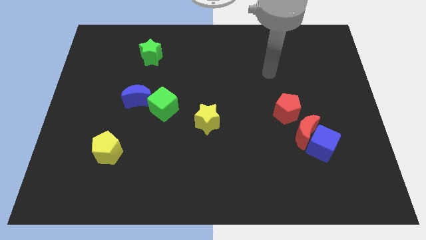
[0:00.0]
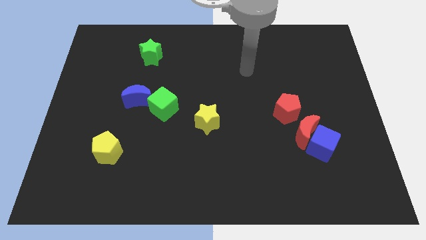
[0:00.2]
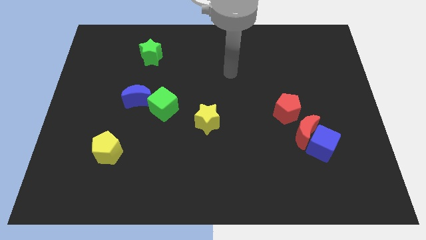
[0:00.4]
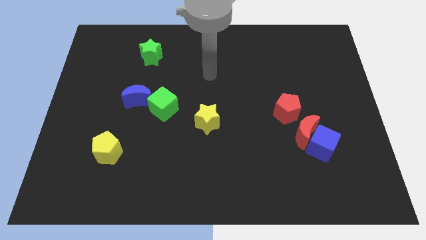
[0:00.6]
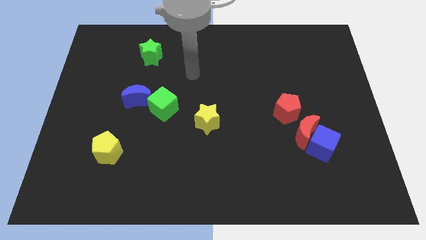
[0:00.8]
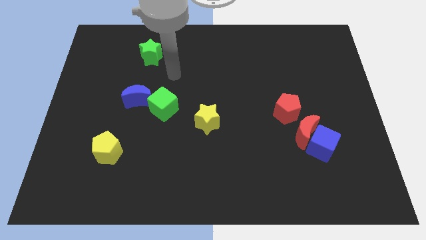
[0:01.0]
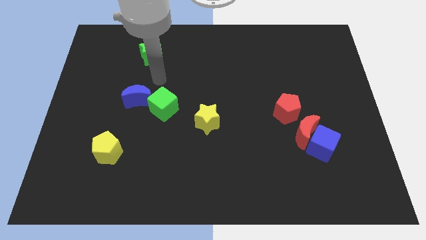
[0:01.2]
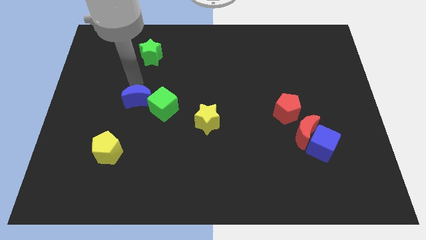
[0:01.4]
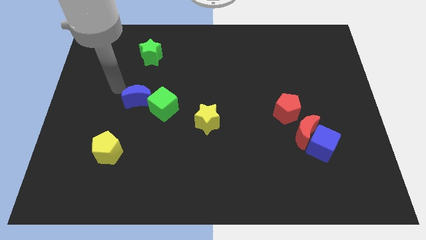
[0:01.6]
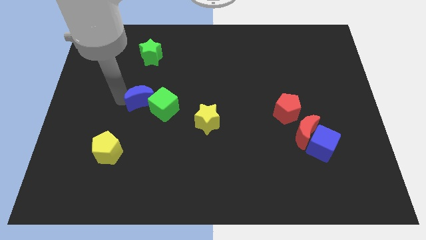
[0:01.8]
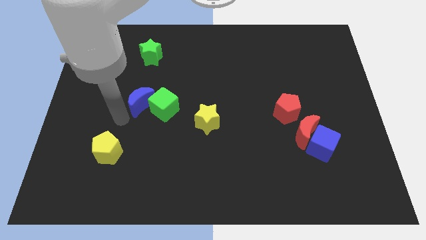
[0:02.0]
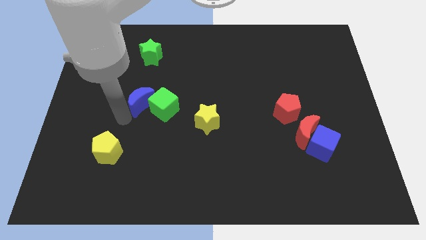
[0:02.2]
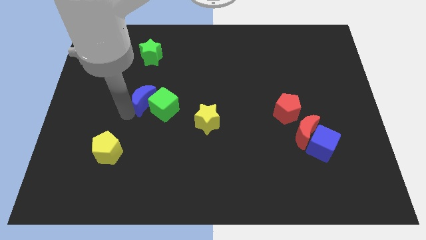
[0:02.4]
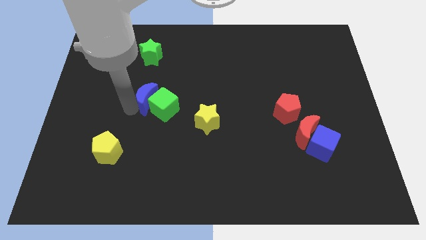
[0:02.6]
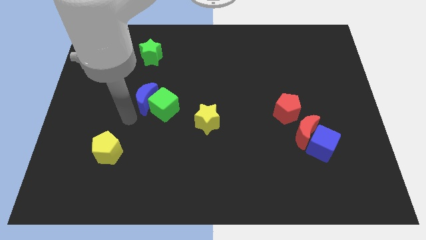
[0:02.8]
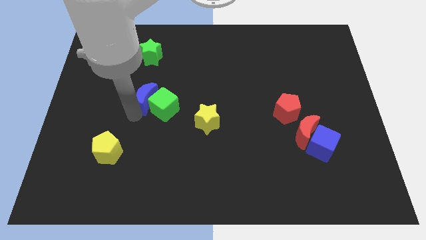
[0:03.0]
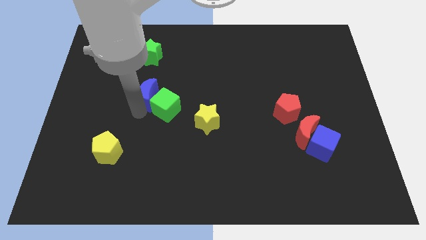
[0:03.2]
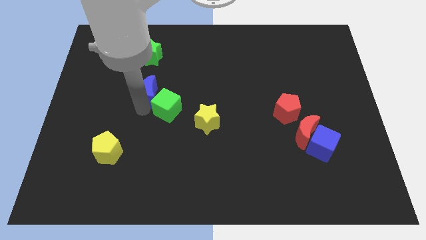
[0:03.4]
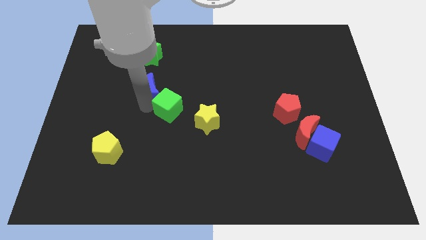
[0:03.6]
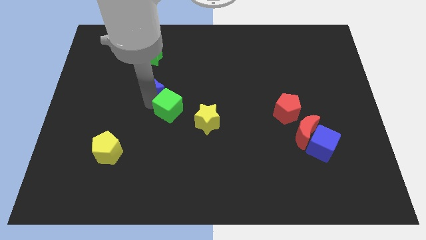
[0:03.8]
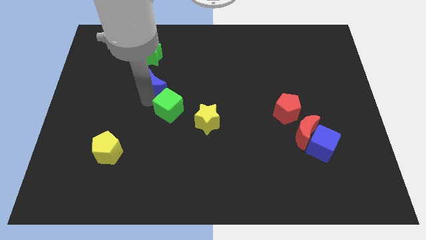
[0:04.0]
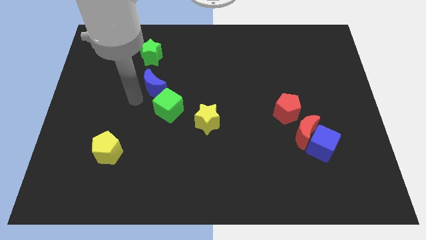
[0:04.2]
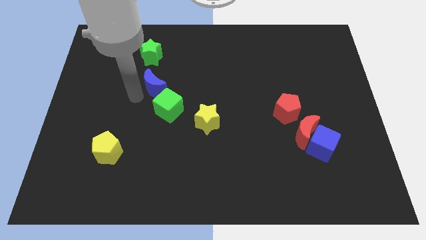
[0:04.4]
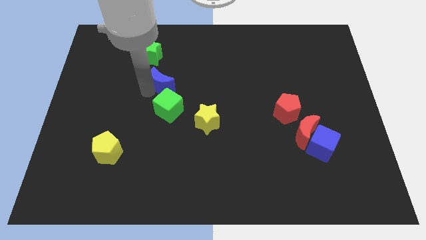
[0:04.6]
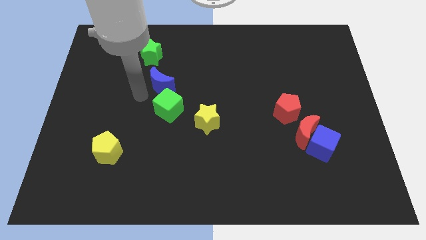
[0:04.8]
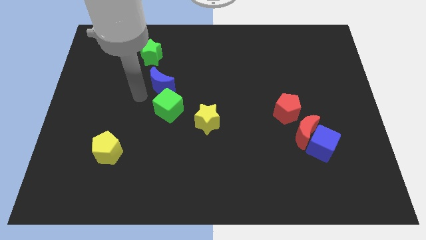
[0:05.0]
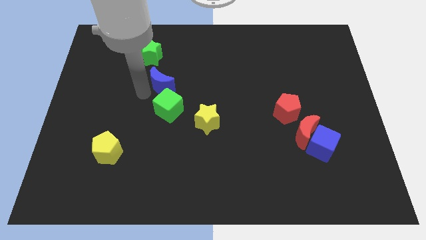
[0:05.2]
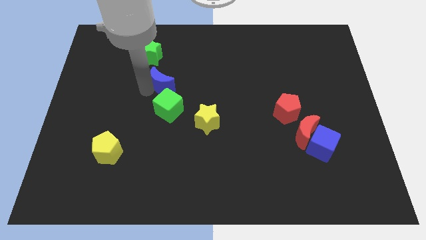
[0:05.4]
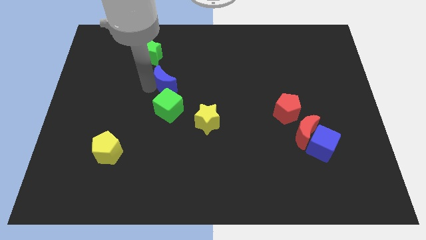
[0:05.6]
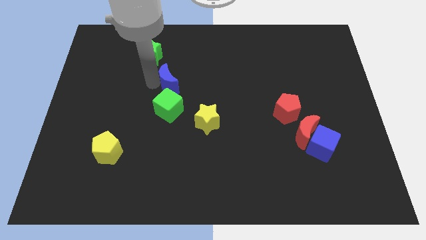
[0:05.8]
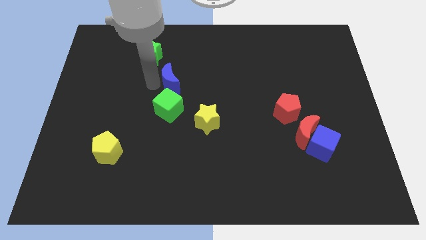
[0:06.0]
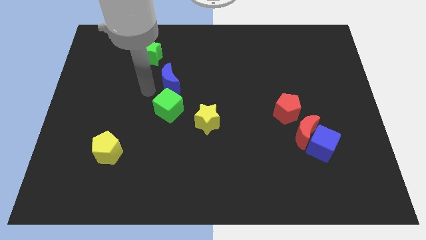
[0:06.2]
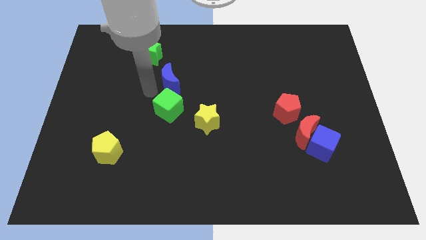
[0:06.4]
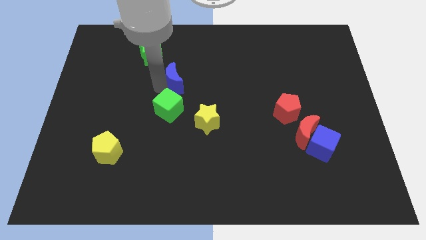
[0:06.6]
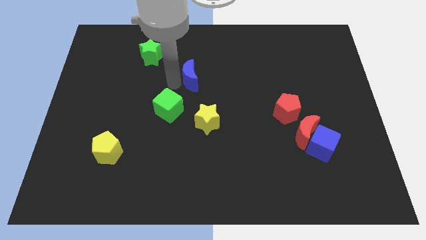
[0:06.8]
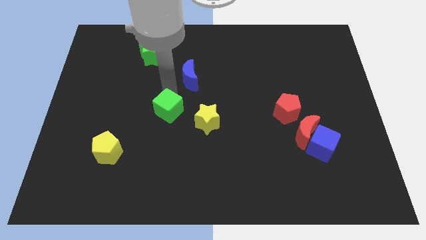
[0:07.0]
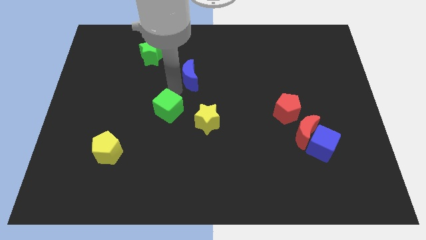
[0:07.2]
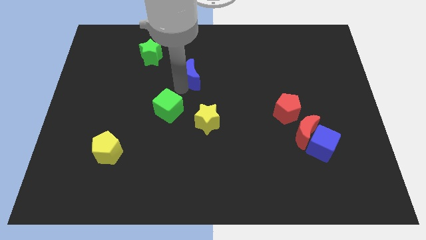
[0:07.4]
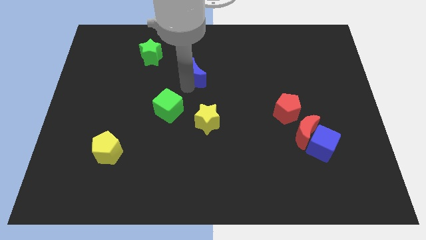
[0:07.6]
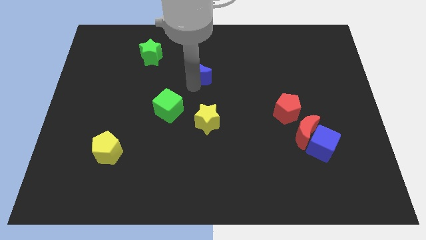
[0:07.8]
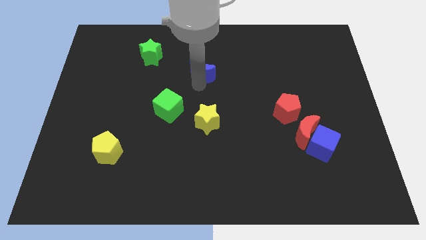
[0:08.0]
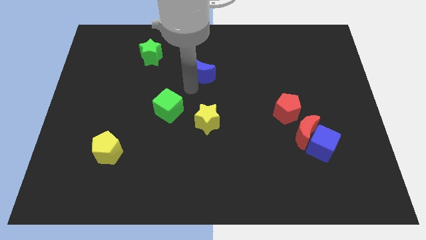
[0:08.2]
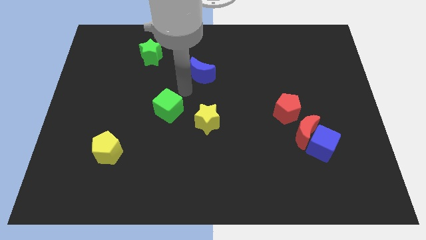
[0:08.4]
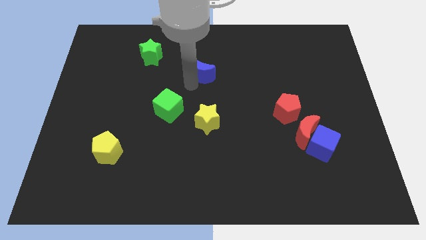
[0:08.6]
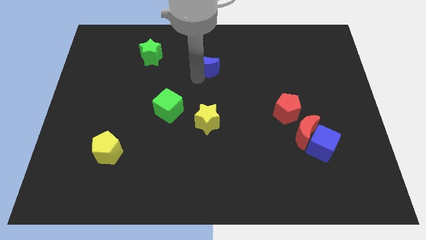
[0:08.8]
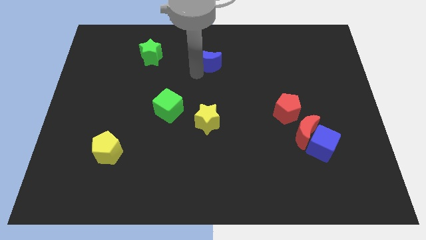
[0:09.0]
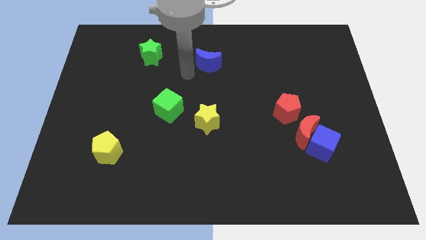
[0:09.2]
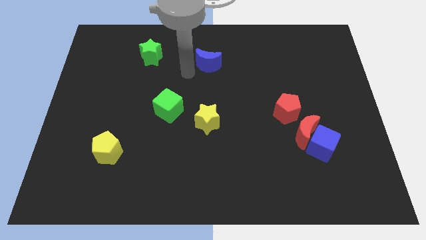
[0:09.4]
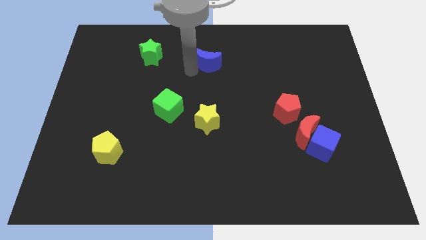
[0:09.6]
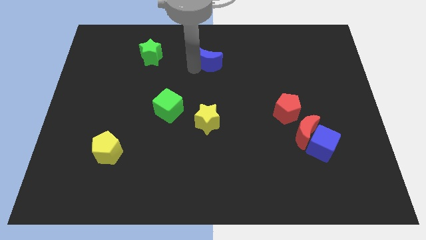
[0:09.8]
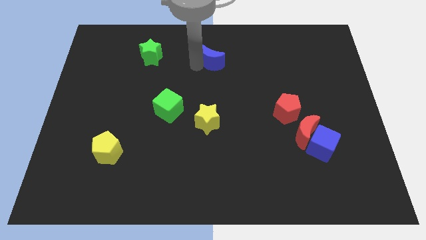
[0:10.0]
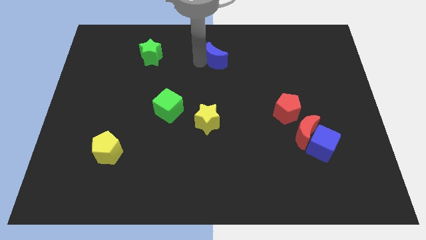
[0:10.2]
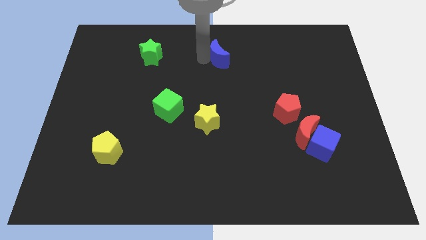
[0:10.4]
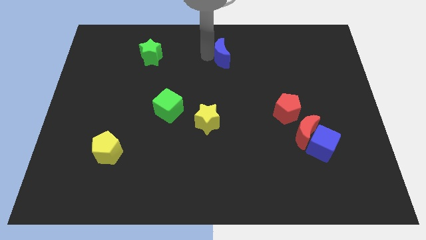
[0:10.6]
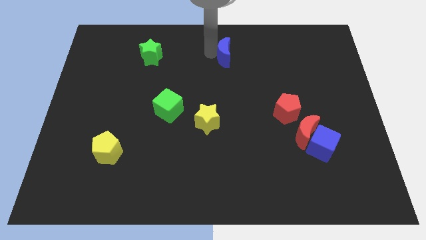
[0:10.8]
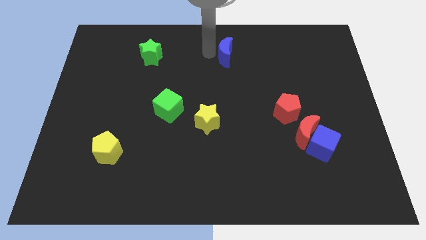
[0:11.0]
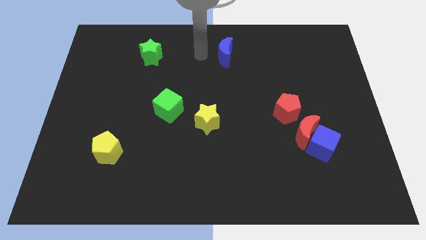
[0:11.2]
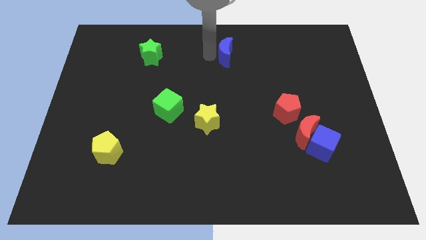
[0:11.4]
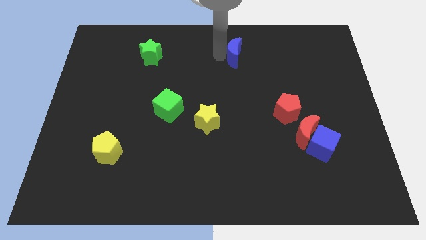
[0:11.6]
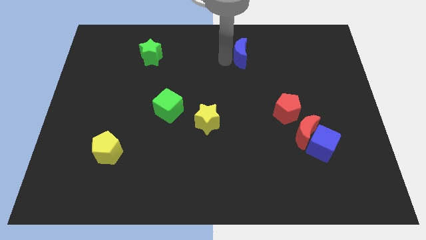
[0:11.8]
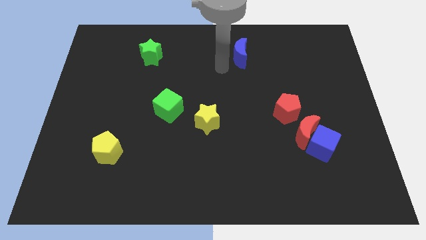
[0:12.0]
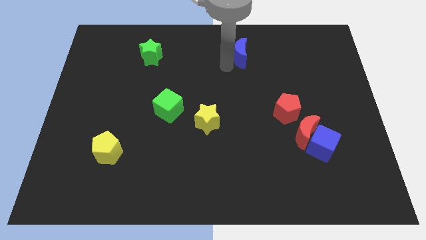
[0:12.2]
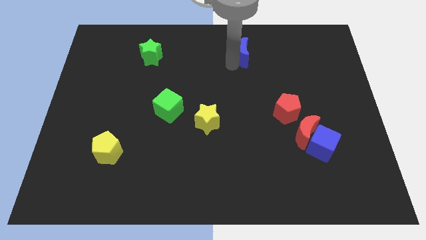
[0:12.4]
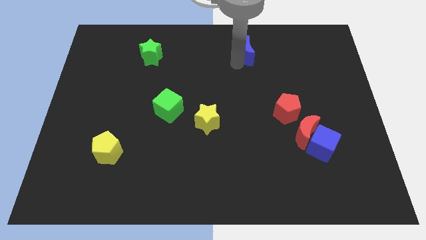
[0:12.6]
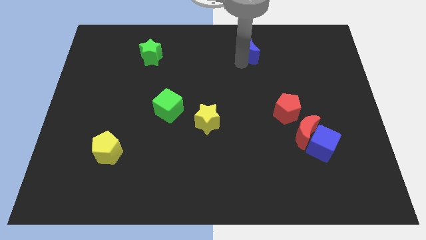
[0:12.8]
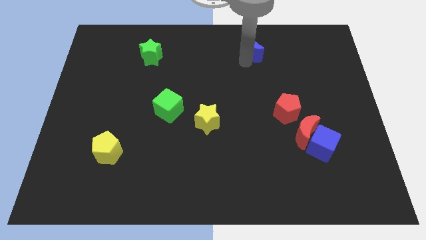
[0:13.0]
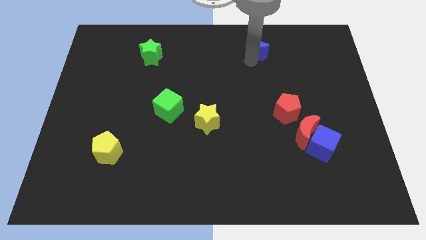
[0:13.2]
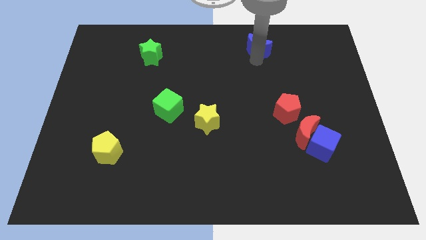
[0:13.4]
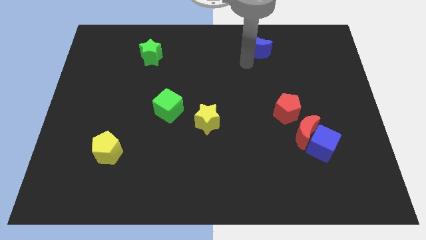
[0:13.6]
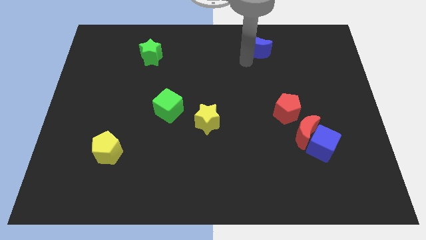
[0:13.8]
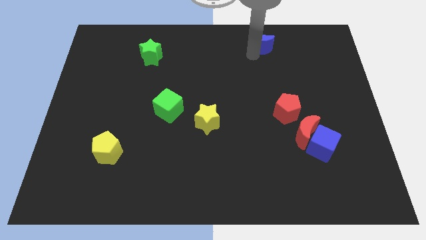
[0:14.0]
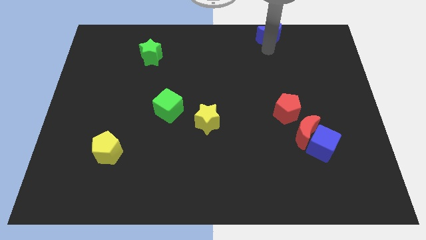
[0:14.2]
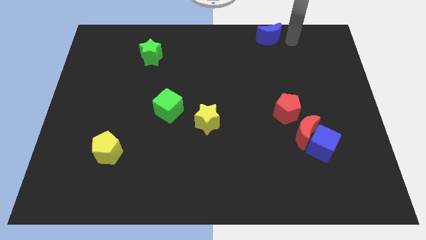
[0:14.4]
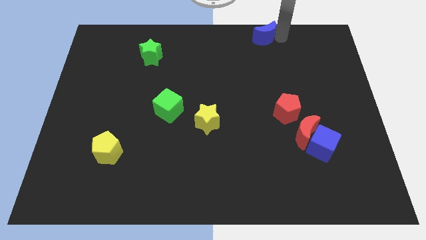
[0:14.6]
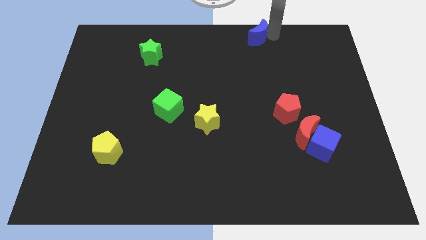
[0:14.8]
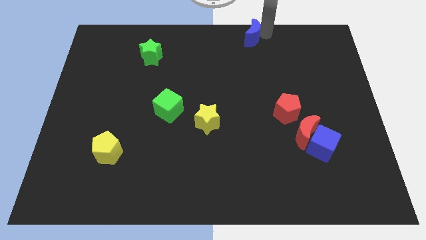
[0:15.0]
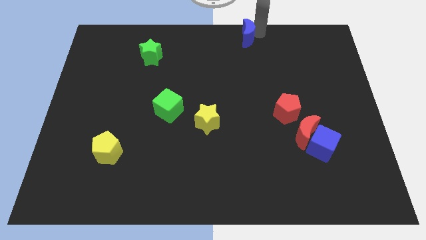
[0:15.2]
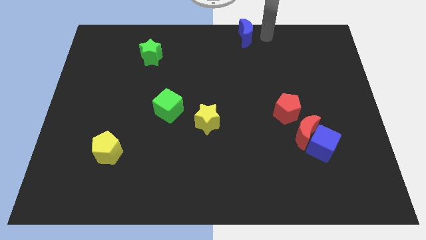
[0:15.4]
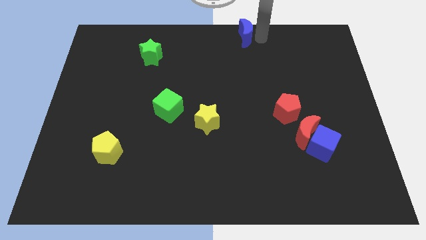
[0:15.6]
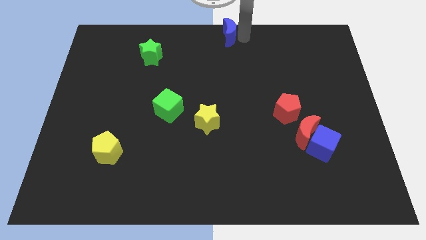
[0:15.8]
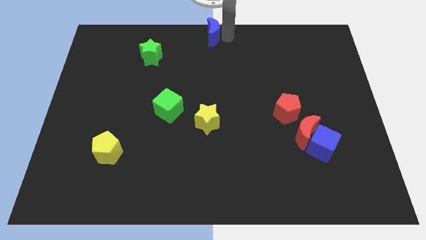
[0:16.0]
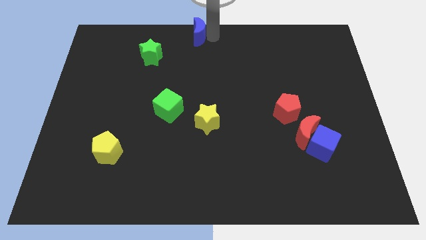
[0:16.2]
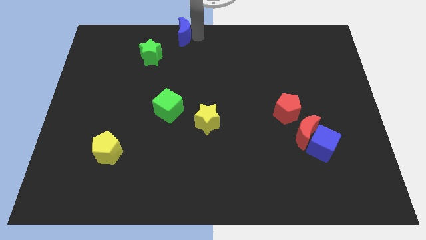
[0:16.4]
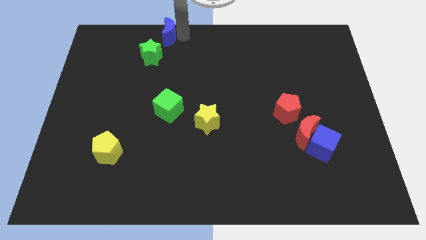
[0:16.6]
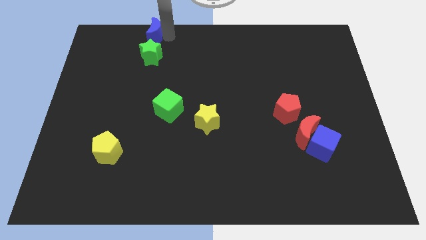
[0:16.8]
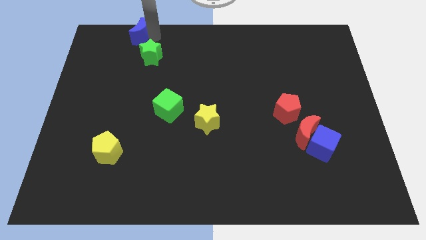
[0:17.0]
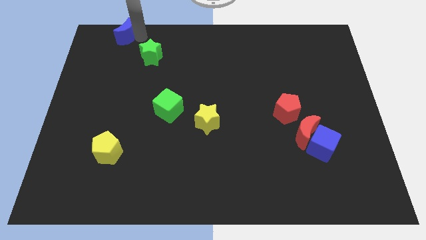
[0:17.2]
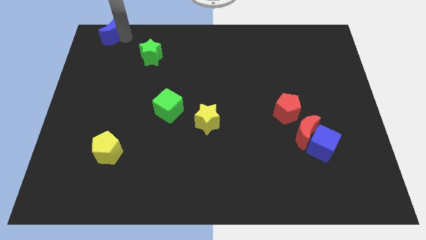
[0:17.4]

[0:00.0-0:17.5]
slide the blue moon to the top left of the board
